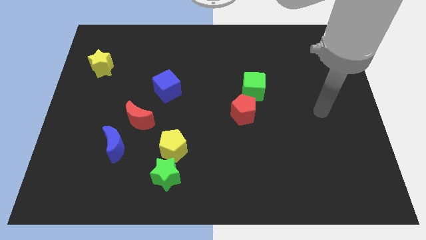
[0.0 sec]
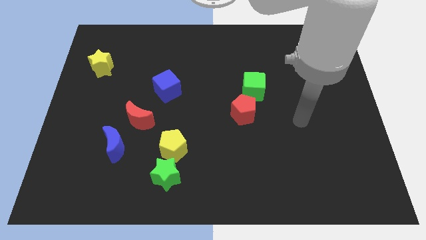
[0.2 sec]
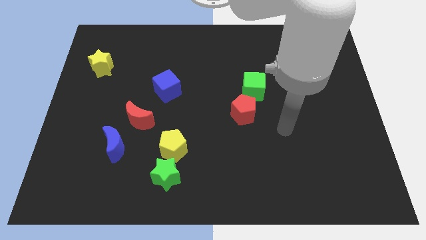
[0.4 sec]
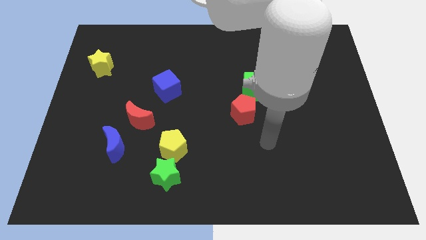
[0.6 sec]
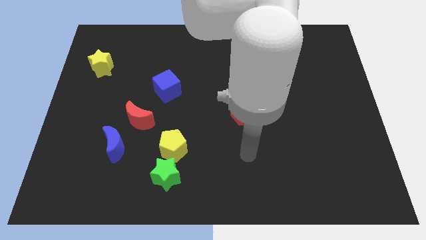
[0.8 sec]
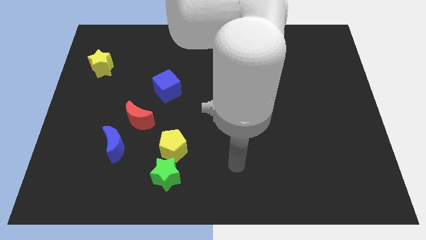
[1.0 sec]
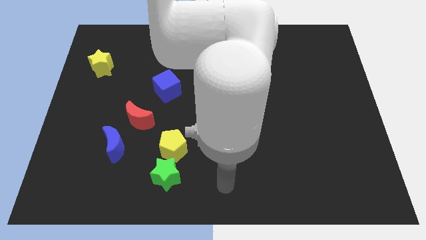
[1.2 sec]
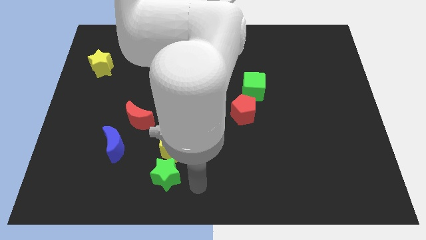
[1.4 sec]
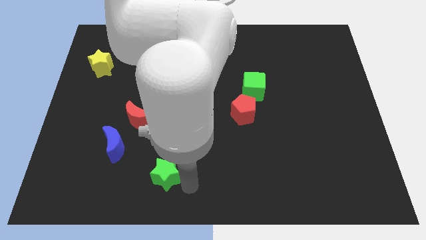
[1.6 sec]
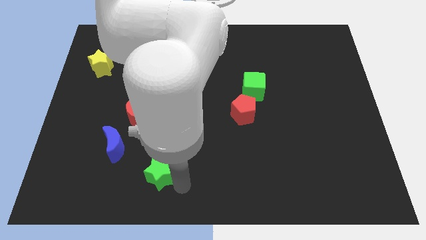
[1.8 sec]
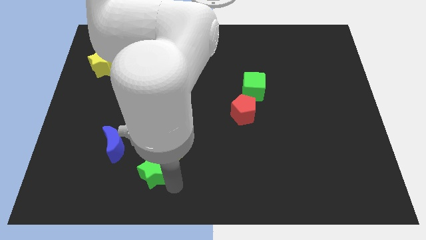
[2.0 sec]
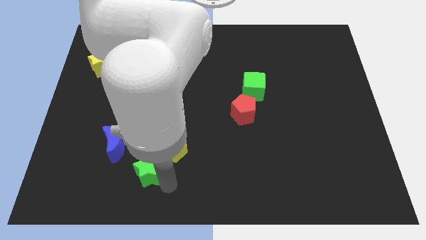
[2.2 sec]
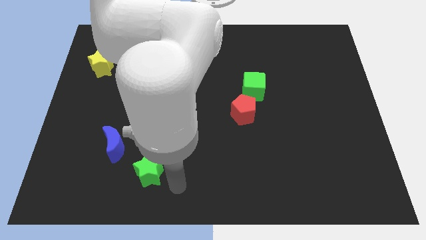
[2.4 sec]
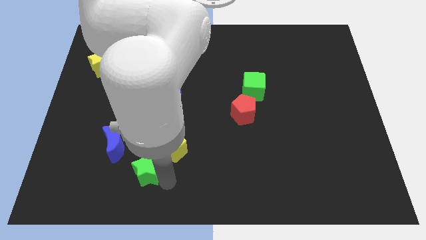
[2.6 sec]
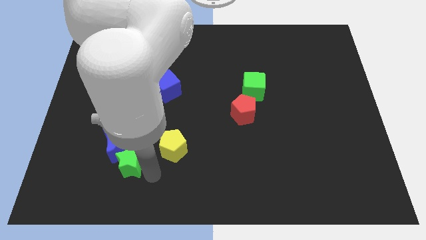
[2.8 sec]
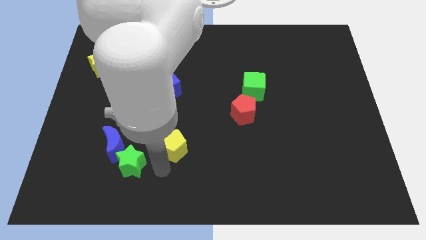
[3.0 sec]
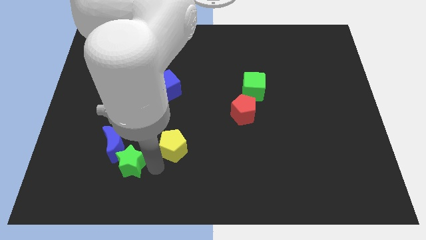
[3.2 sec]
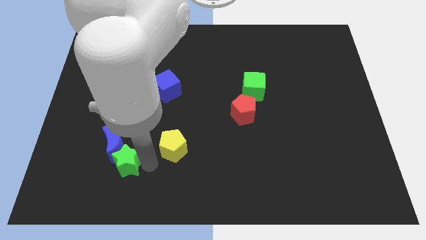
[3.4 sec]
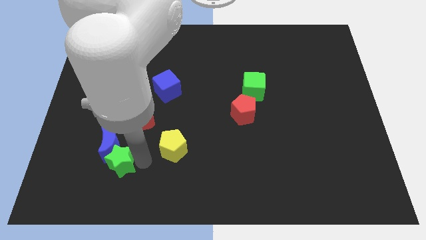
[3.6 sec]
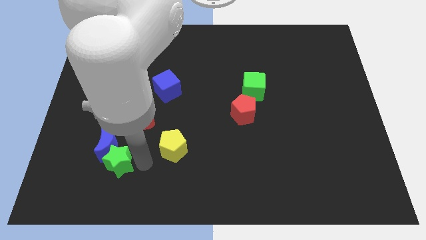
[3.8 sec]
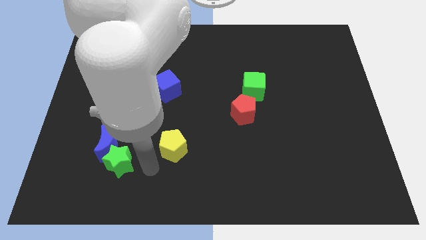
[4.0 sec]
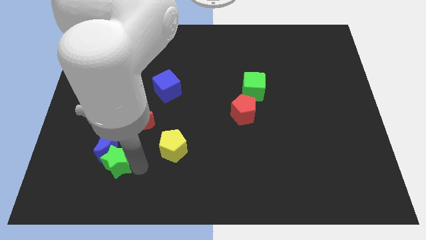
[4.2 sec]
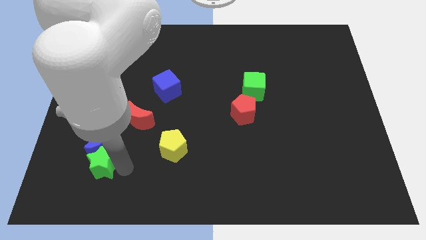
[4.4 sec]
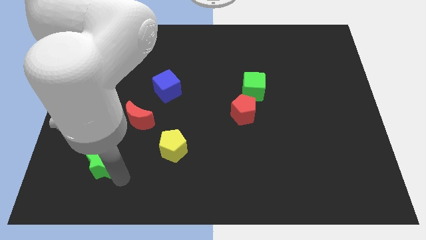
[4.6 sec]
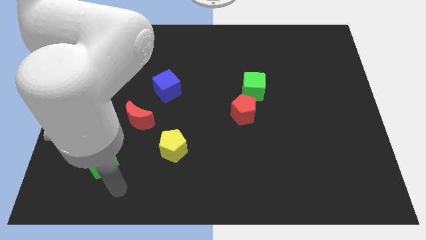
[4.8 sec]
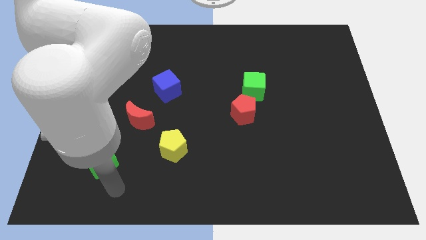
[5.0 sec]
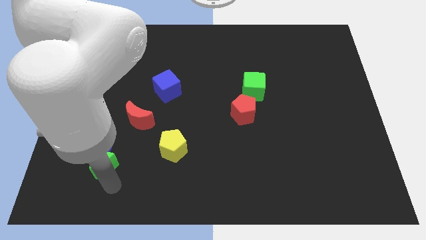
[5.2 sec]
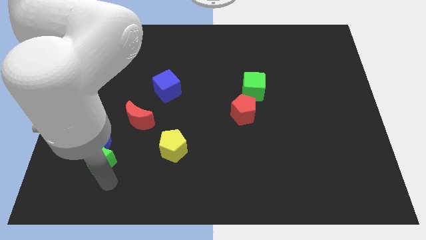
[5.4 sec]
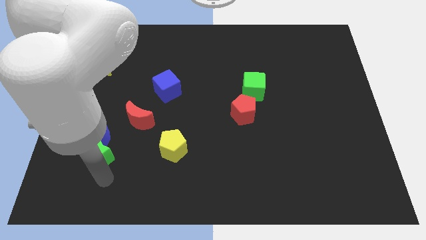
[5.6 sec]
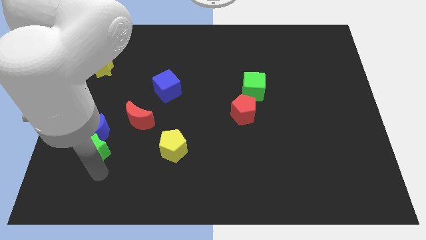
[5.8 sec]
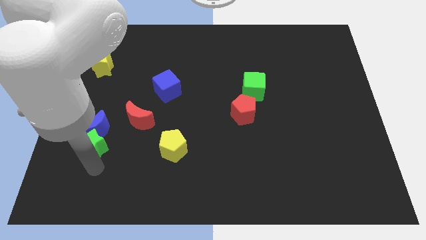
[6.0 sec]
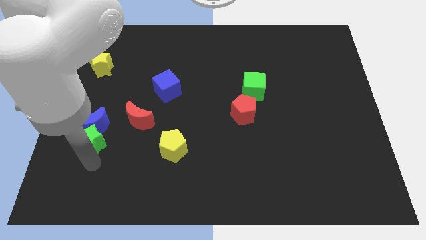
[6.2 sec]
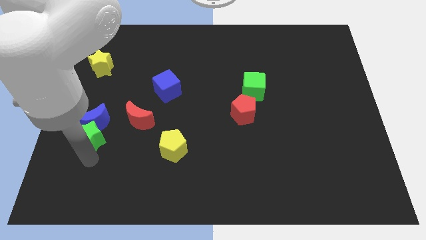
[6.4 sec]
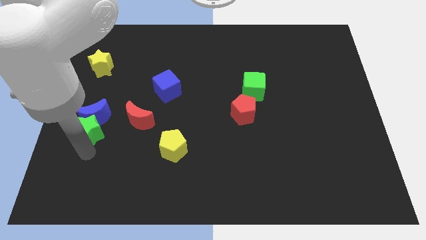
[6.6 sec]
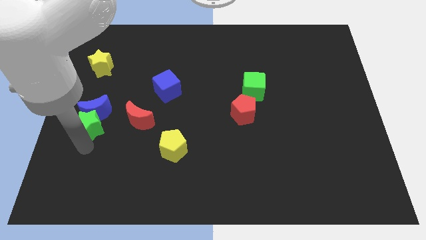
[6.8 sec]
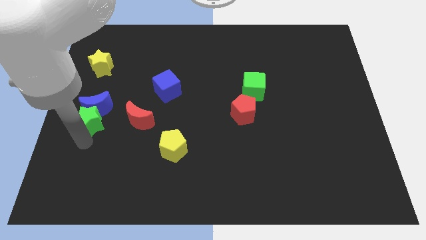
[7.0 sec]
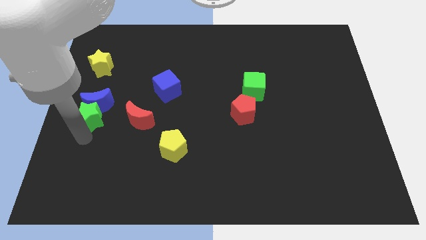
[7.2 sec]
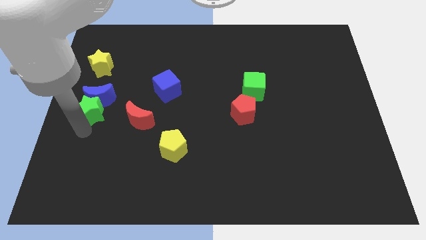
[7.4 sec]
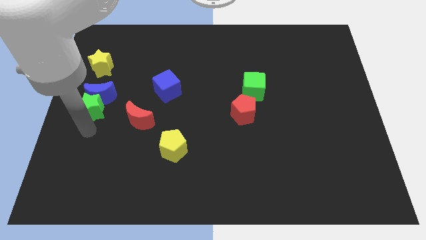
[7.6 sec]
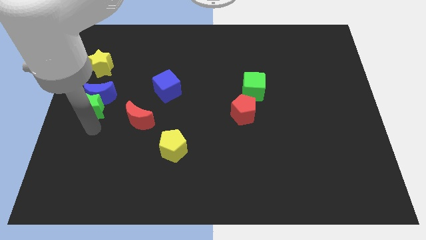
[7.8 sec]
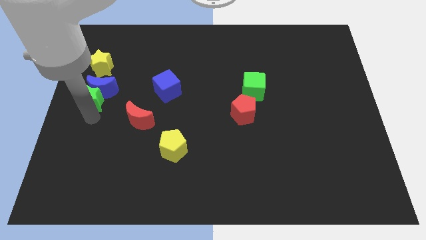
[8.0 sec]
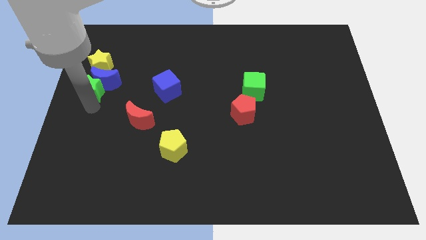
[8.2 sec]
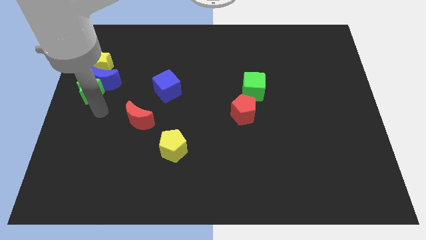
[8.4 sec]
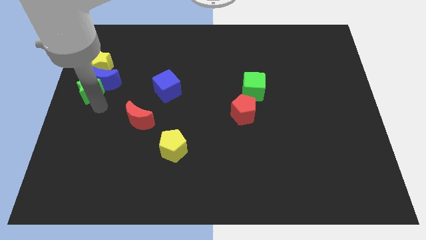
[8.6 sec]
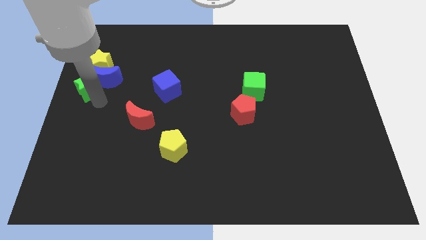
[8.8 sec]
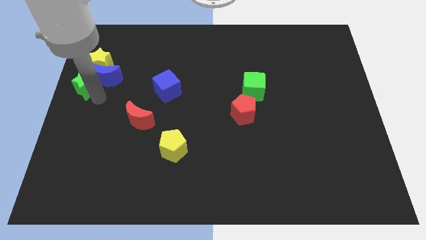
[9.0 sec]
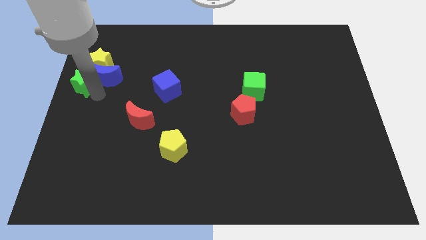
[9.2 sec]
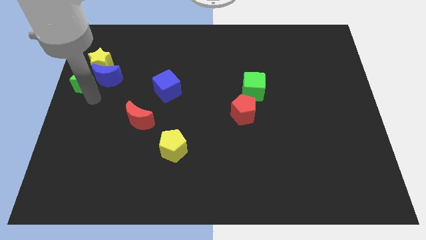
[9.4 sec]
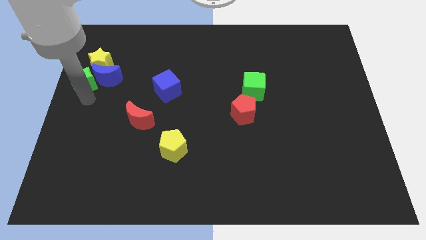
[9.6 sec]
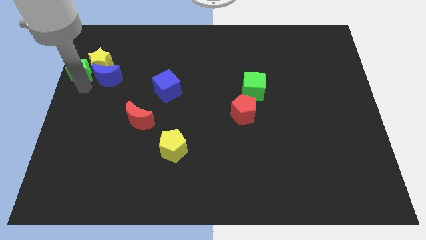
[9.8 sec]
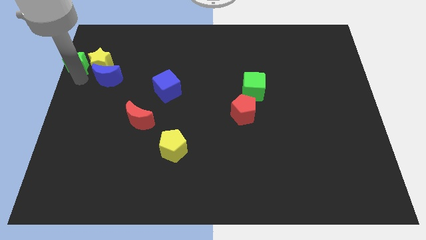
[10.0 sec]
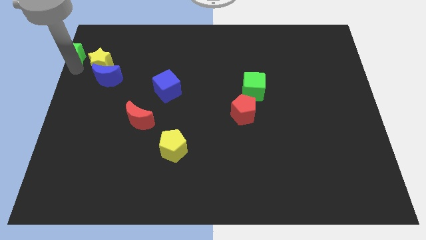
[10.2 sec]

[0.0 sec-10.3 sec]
put the green star to the top left

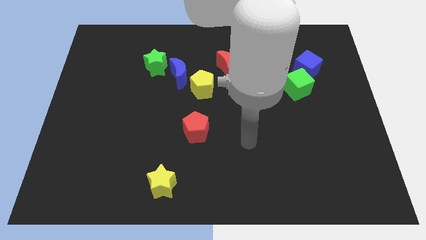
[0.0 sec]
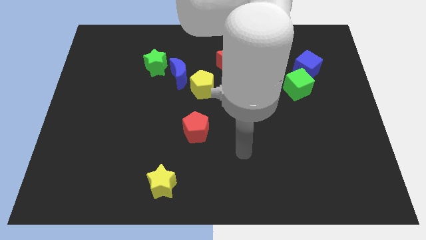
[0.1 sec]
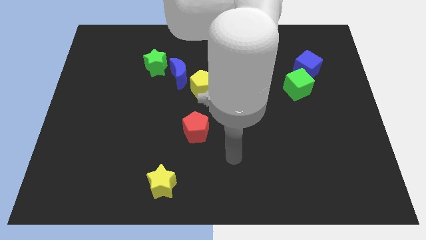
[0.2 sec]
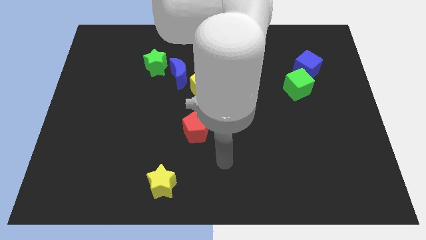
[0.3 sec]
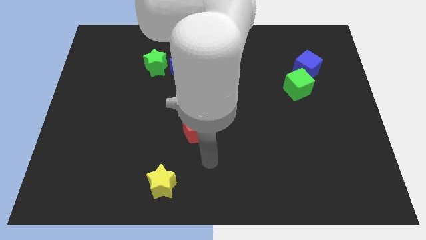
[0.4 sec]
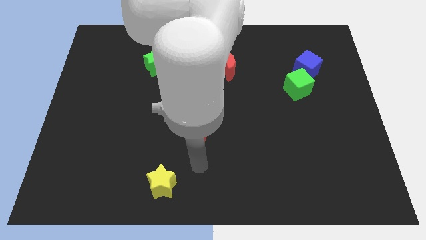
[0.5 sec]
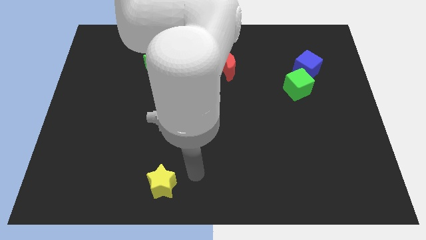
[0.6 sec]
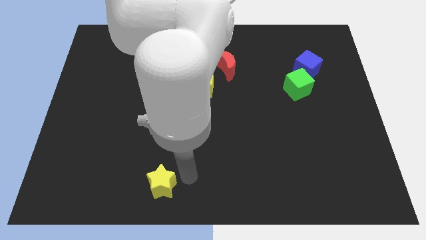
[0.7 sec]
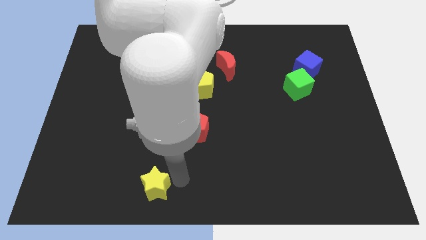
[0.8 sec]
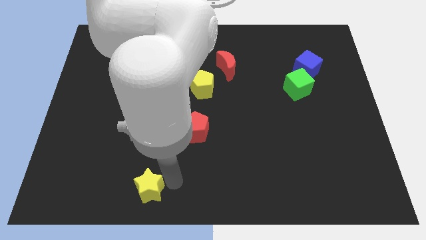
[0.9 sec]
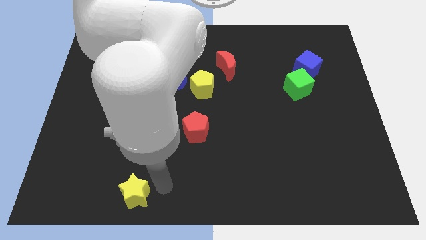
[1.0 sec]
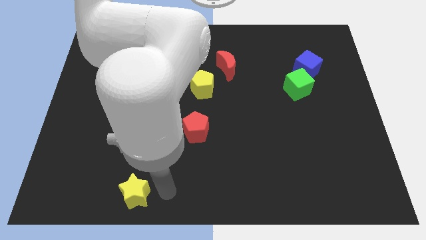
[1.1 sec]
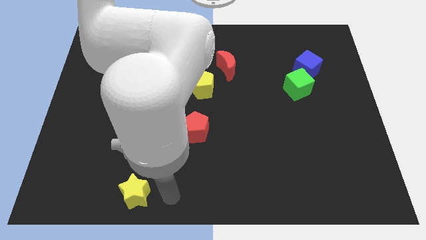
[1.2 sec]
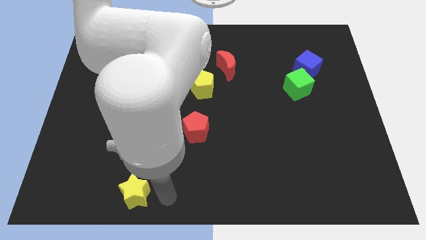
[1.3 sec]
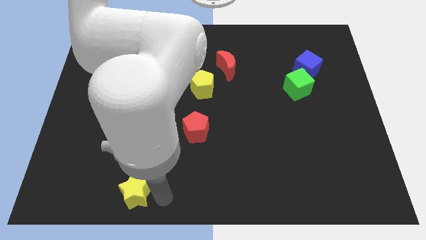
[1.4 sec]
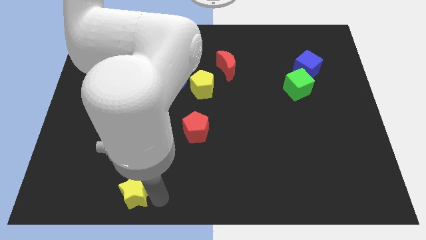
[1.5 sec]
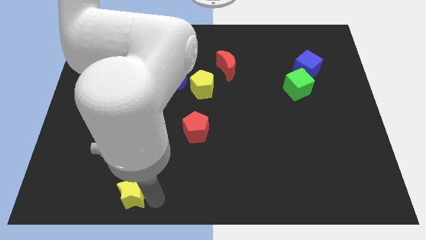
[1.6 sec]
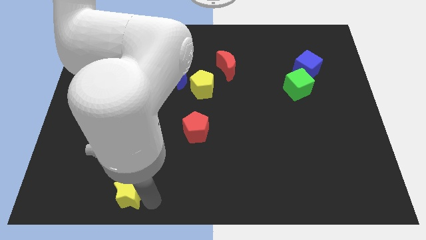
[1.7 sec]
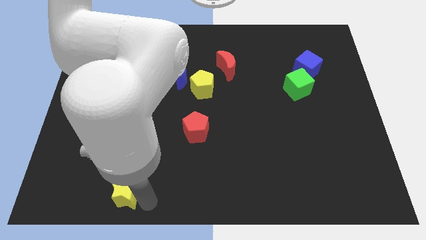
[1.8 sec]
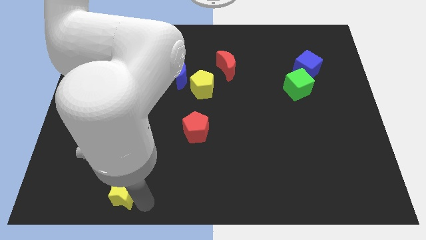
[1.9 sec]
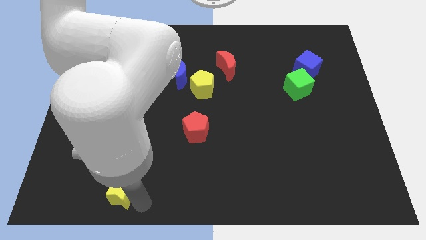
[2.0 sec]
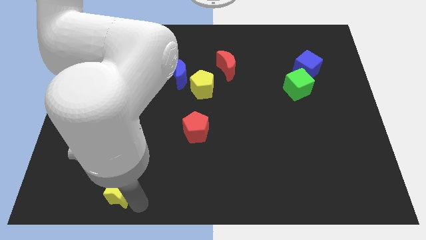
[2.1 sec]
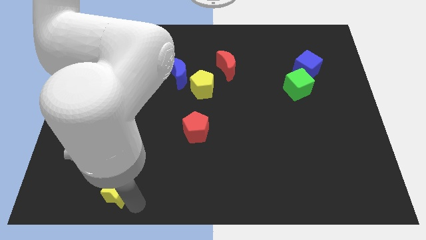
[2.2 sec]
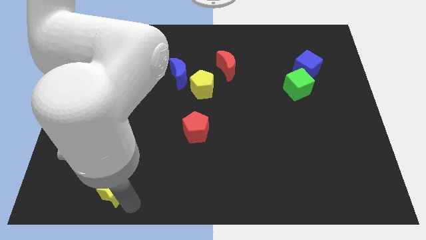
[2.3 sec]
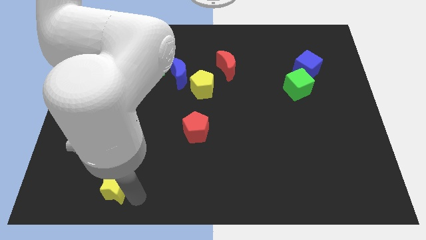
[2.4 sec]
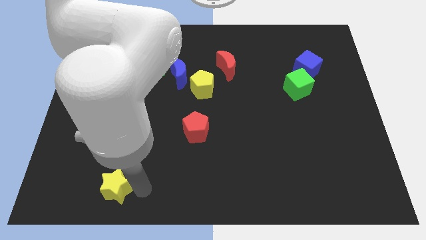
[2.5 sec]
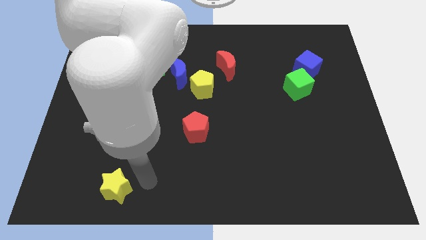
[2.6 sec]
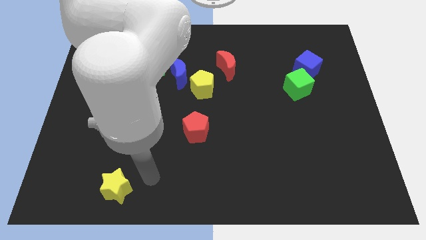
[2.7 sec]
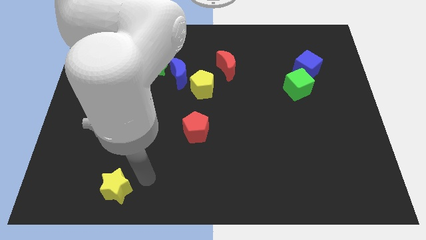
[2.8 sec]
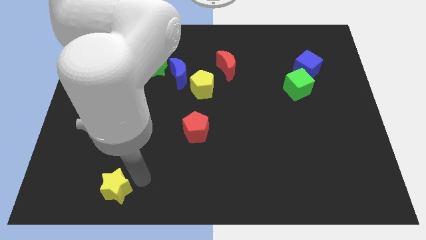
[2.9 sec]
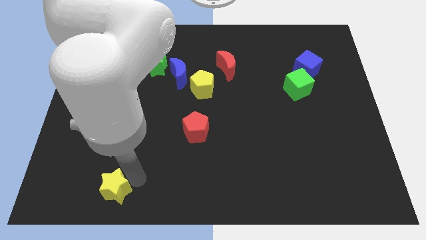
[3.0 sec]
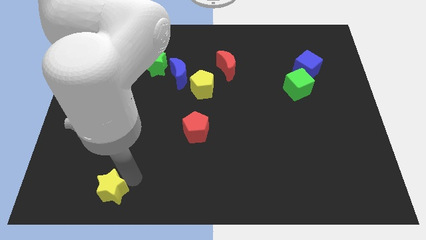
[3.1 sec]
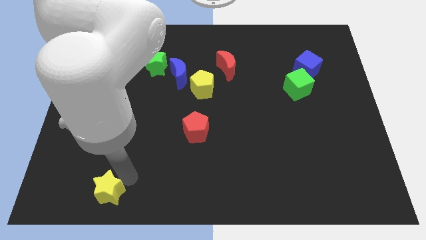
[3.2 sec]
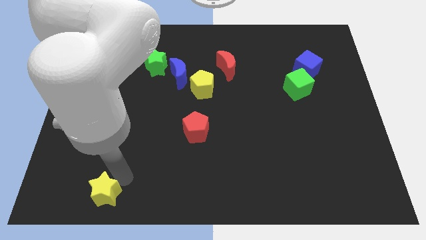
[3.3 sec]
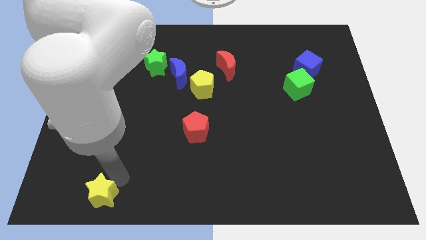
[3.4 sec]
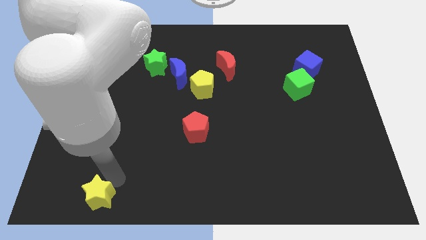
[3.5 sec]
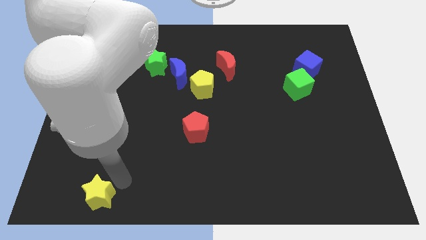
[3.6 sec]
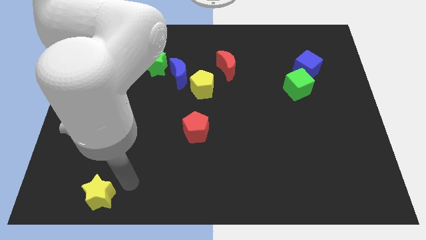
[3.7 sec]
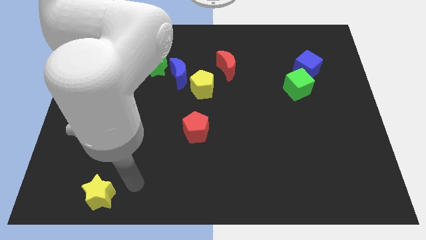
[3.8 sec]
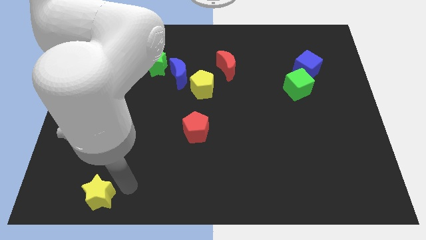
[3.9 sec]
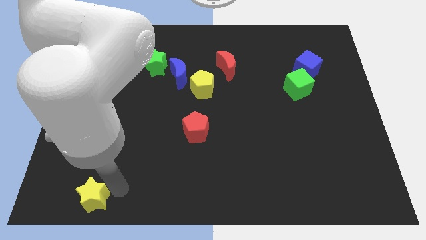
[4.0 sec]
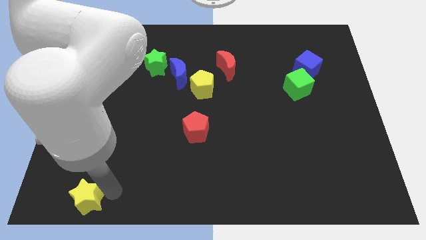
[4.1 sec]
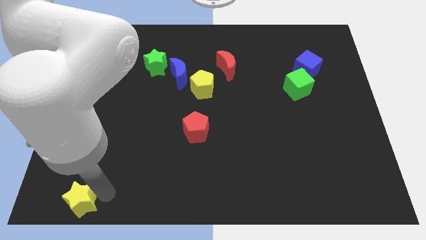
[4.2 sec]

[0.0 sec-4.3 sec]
move the yellow star to the bottom left
